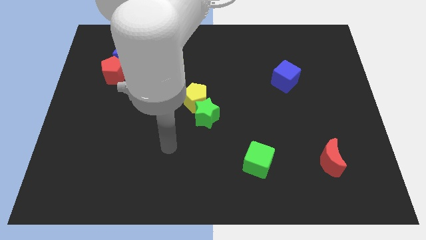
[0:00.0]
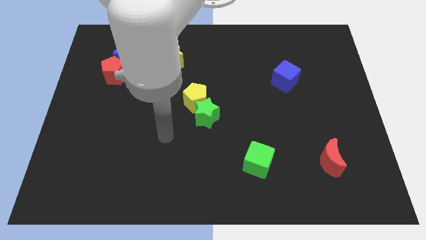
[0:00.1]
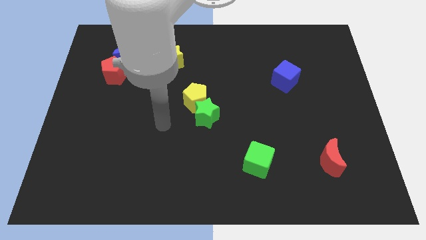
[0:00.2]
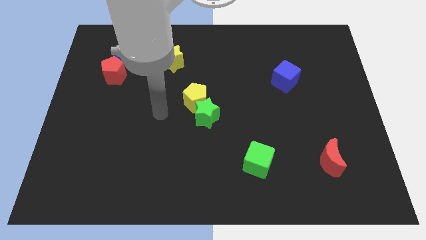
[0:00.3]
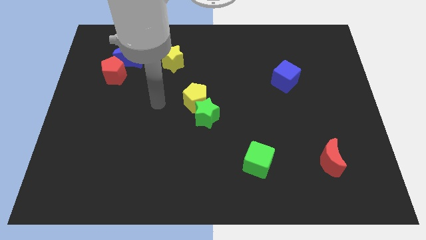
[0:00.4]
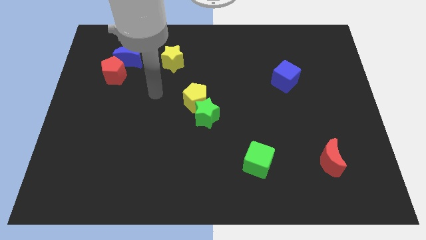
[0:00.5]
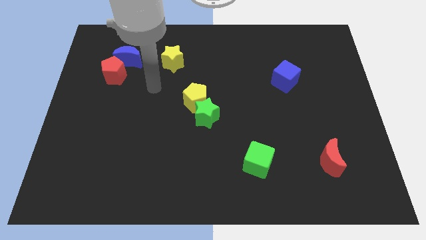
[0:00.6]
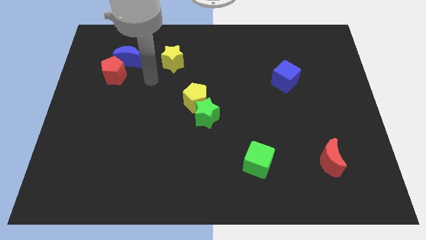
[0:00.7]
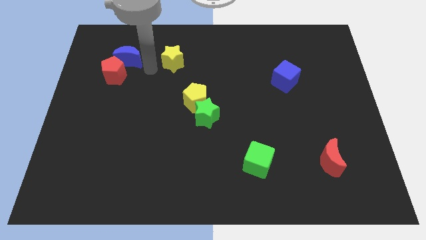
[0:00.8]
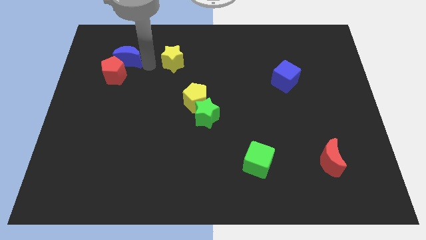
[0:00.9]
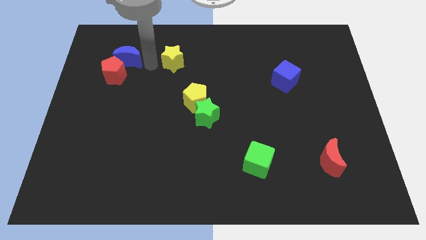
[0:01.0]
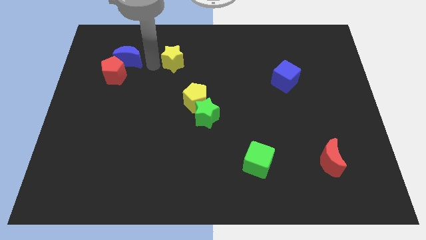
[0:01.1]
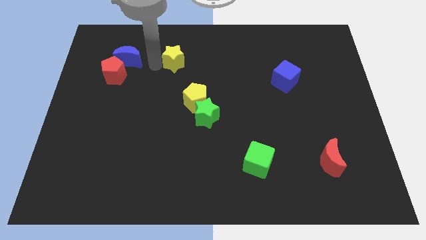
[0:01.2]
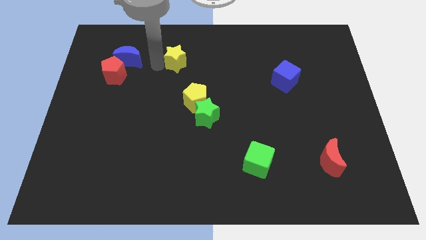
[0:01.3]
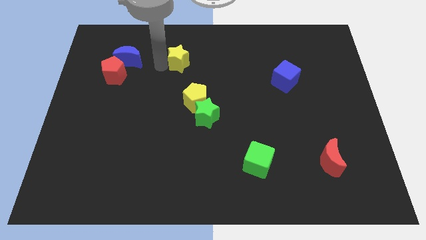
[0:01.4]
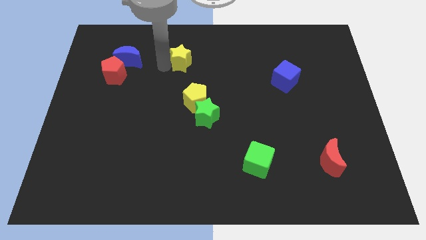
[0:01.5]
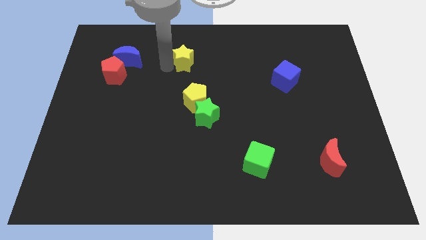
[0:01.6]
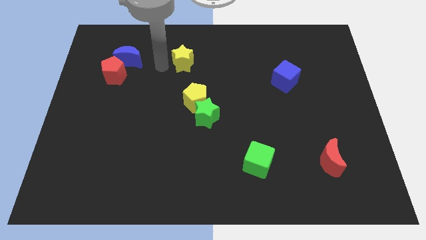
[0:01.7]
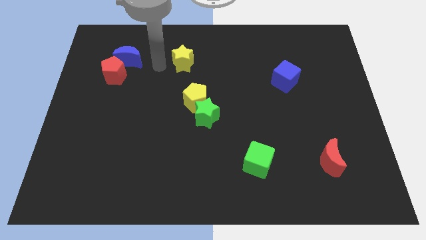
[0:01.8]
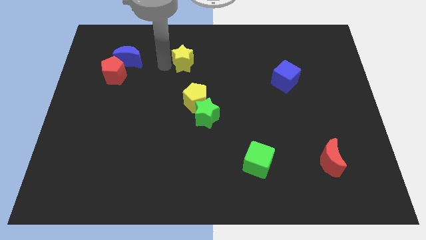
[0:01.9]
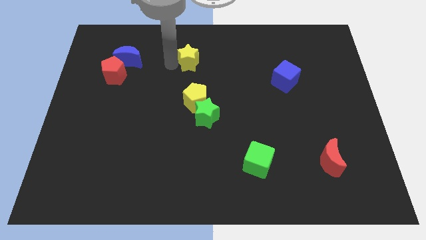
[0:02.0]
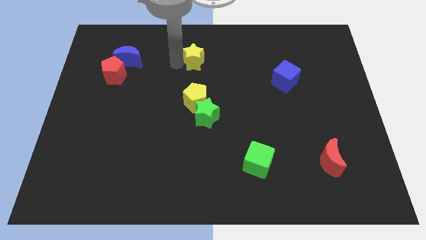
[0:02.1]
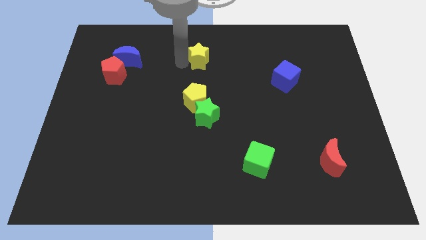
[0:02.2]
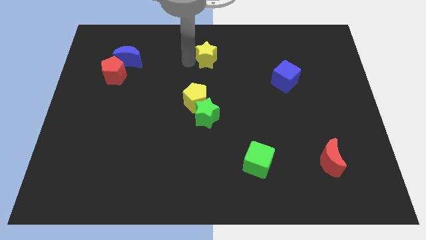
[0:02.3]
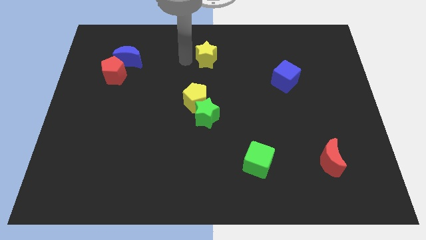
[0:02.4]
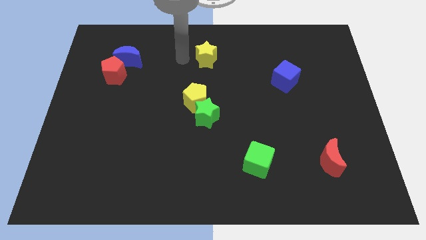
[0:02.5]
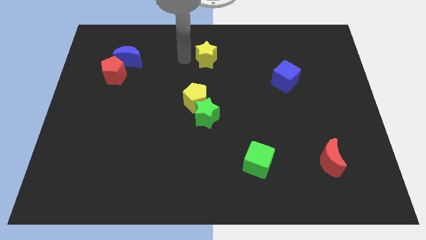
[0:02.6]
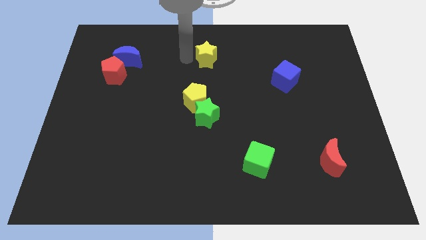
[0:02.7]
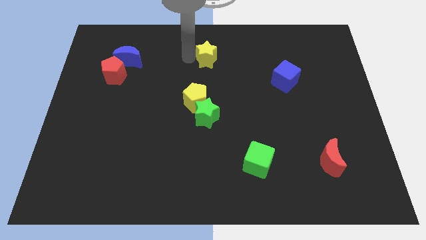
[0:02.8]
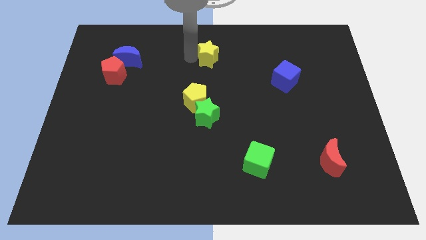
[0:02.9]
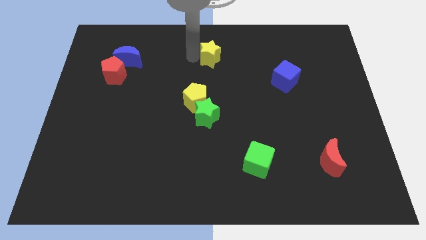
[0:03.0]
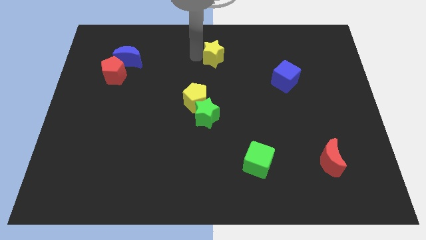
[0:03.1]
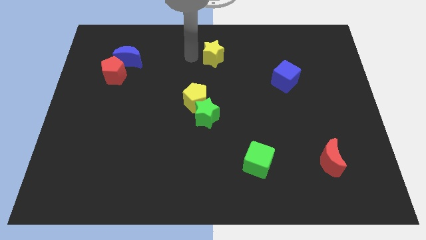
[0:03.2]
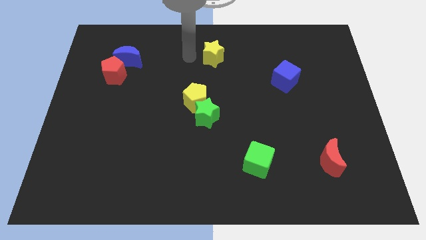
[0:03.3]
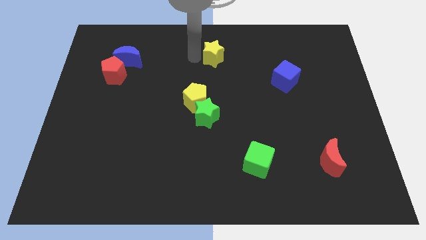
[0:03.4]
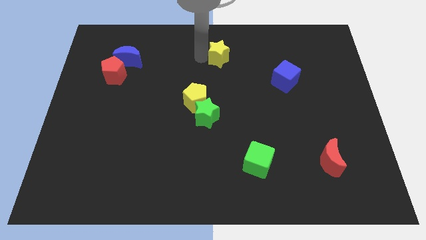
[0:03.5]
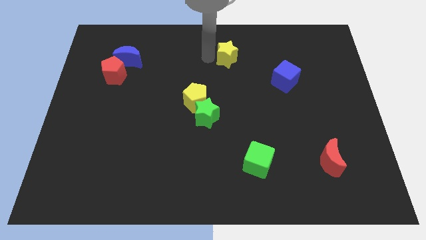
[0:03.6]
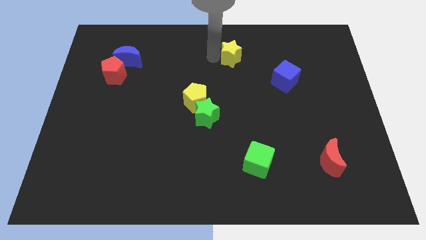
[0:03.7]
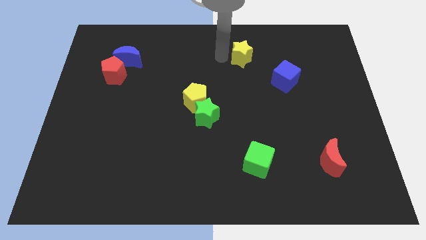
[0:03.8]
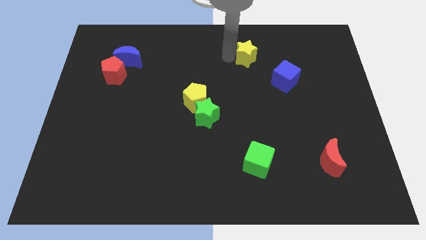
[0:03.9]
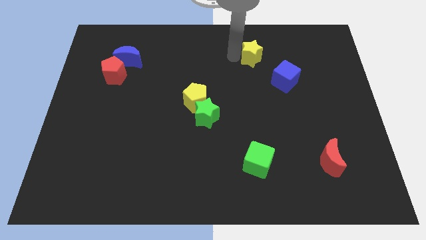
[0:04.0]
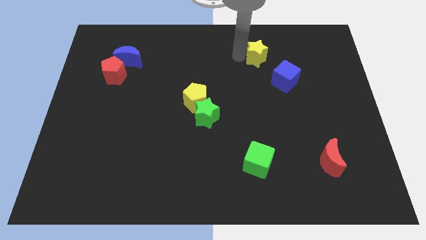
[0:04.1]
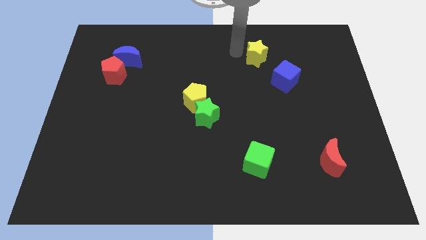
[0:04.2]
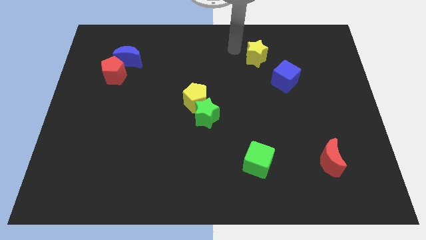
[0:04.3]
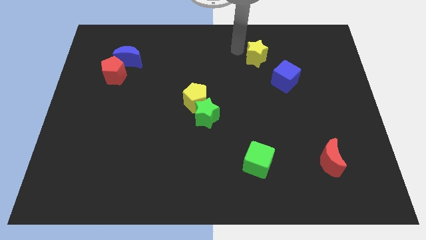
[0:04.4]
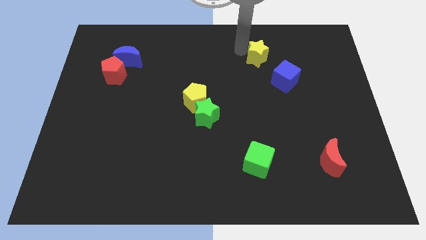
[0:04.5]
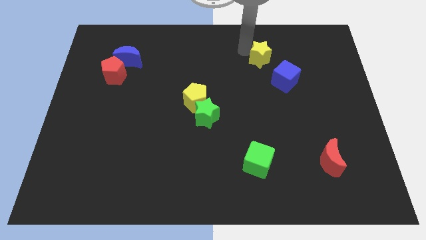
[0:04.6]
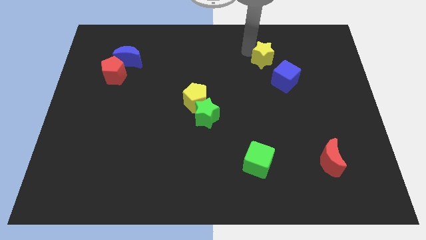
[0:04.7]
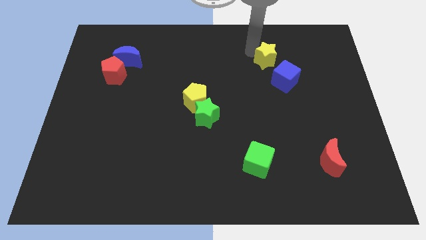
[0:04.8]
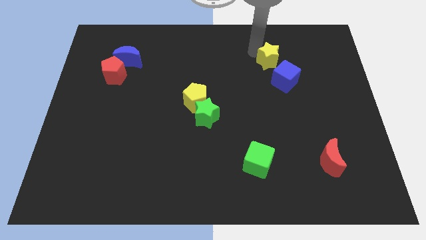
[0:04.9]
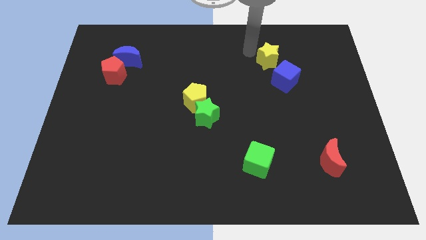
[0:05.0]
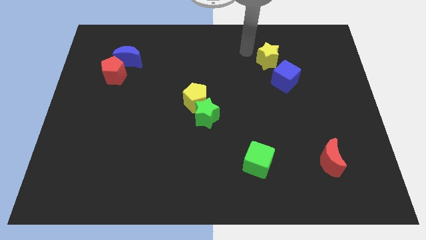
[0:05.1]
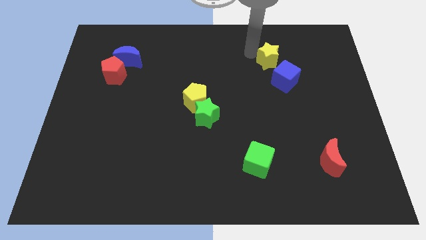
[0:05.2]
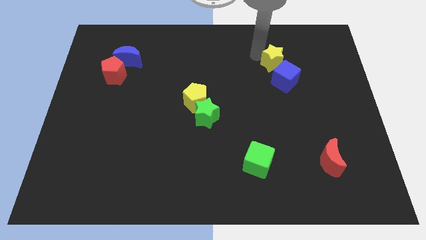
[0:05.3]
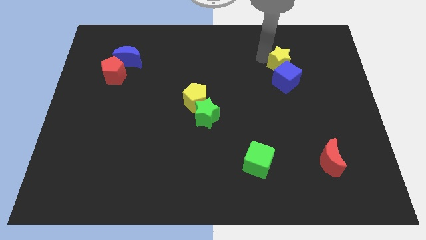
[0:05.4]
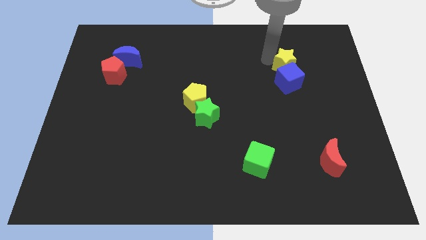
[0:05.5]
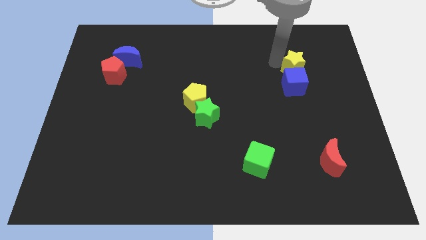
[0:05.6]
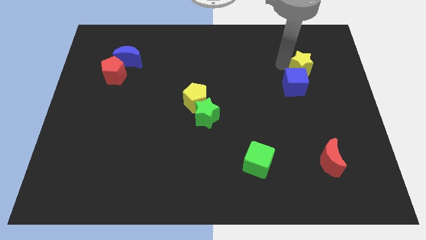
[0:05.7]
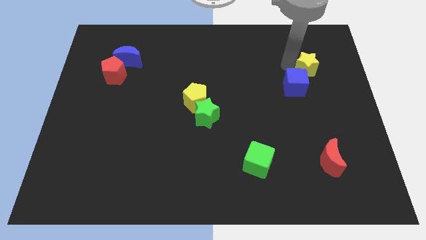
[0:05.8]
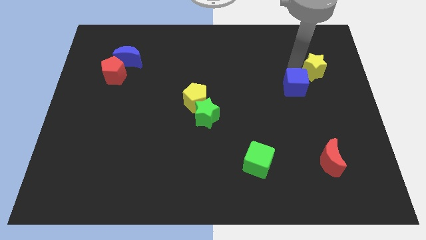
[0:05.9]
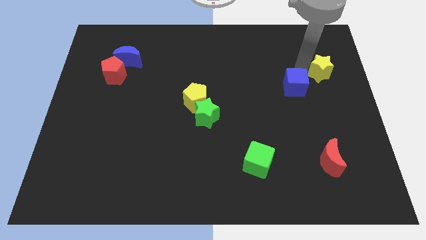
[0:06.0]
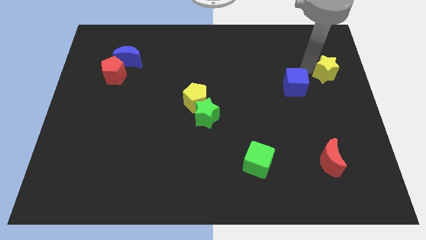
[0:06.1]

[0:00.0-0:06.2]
push the yellow star to the right side
